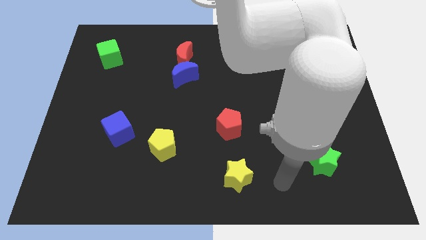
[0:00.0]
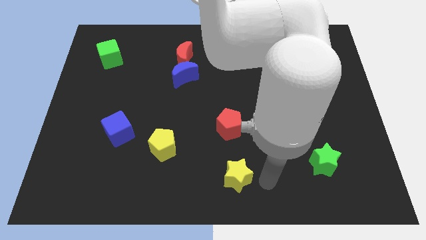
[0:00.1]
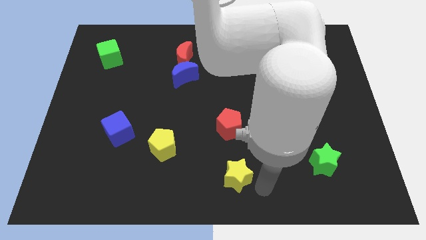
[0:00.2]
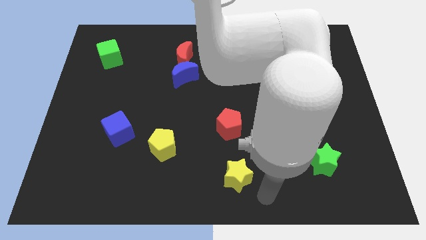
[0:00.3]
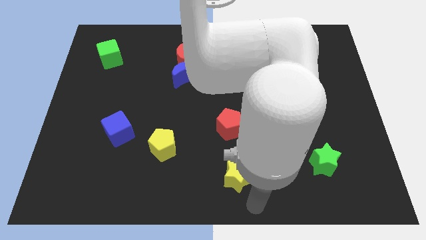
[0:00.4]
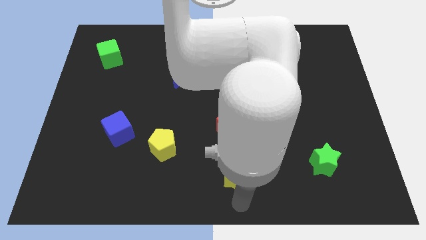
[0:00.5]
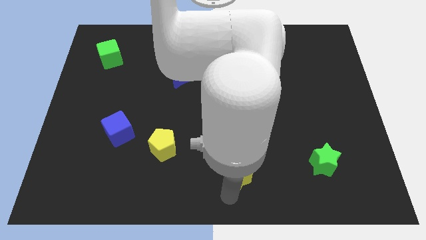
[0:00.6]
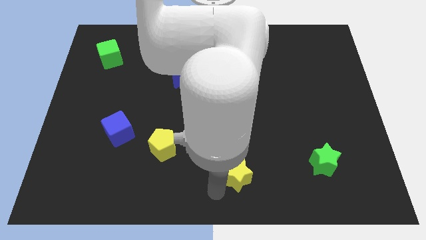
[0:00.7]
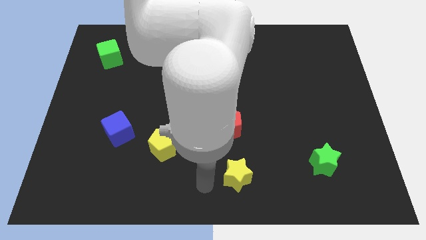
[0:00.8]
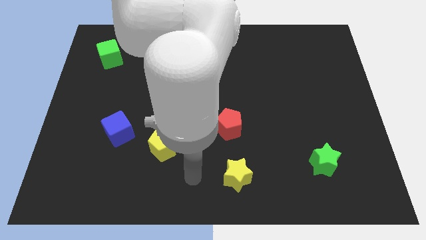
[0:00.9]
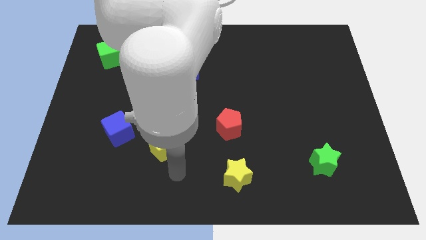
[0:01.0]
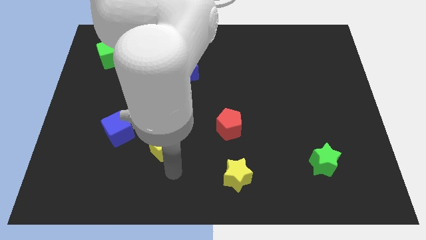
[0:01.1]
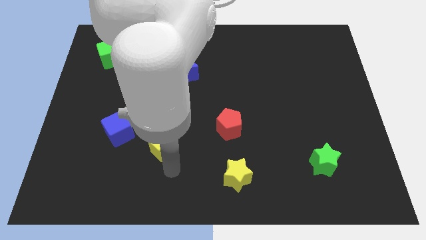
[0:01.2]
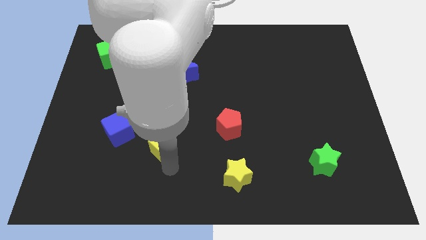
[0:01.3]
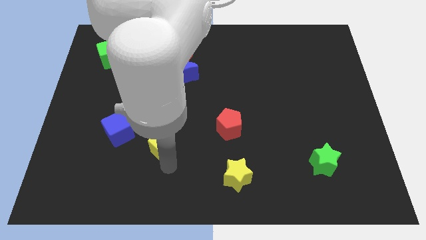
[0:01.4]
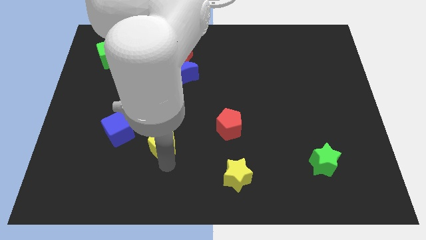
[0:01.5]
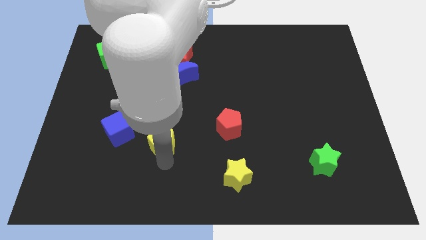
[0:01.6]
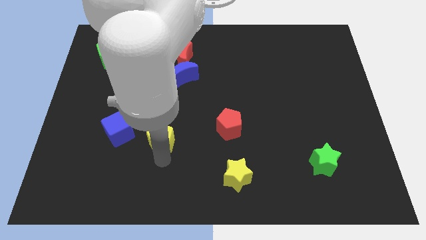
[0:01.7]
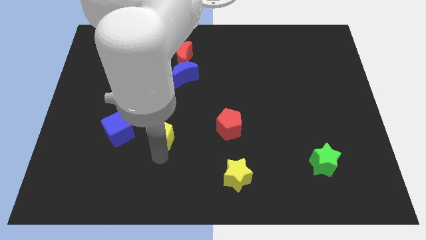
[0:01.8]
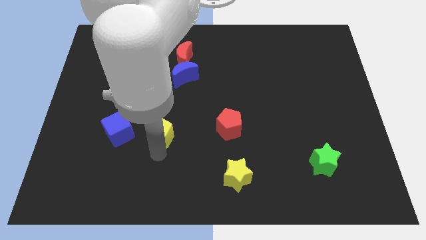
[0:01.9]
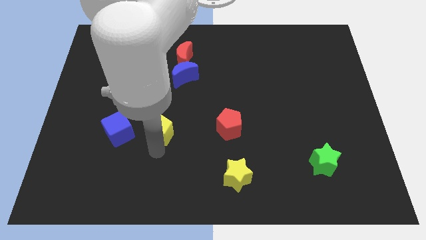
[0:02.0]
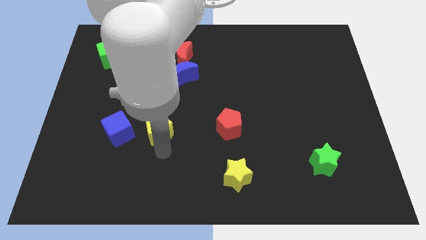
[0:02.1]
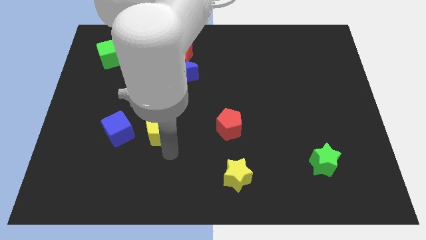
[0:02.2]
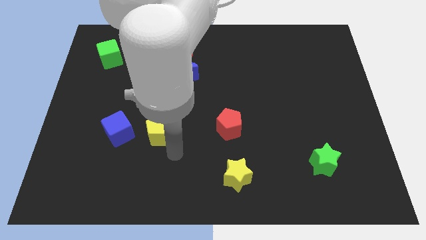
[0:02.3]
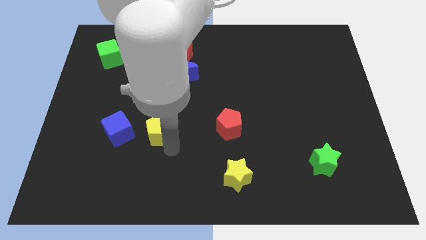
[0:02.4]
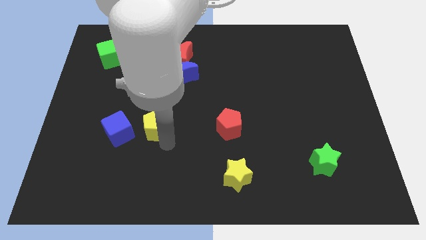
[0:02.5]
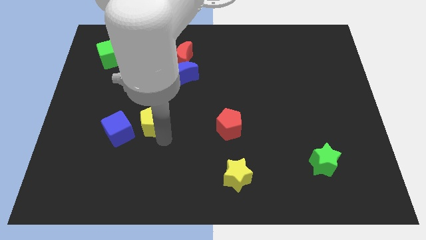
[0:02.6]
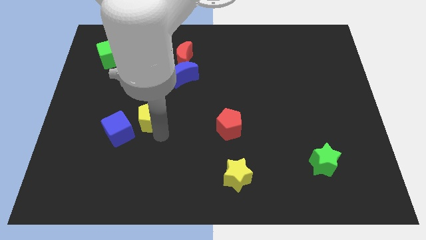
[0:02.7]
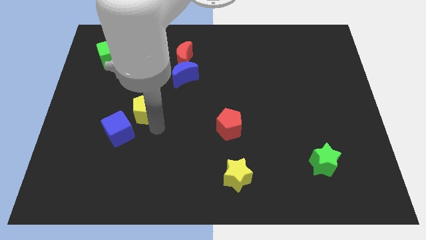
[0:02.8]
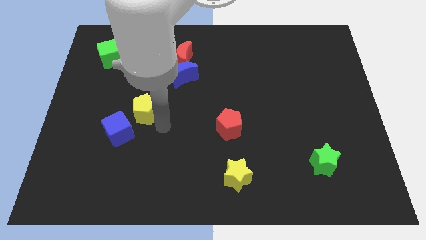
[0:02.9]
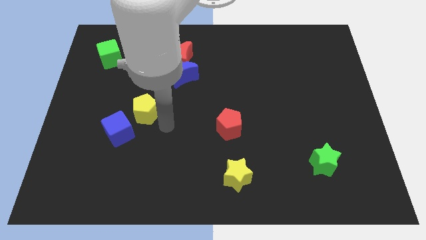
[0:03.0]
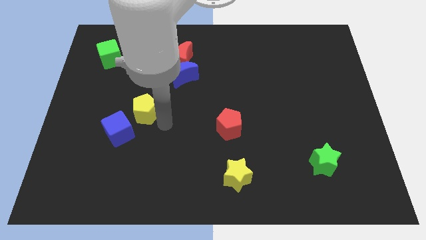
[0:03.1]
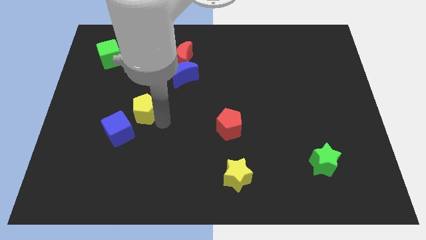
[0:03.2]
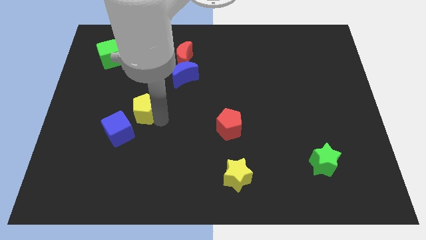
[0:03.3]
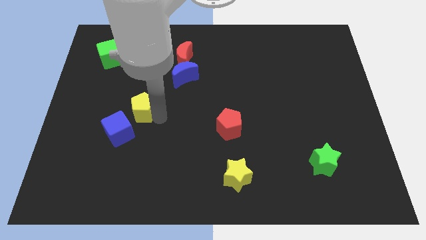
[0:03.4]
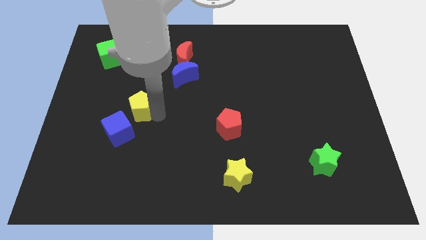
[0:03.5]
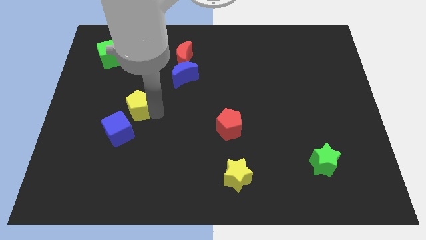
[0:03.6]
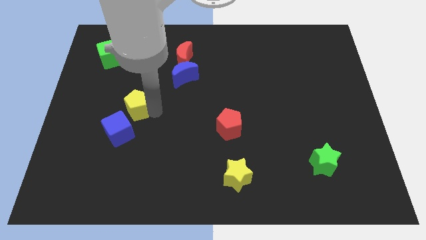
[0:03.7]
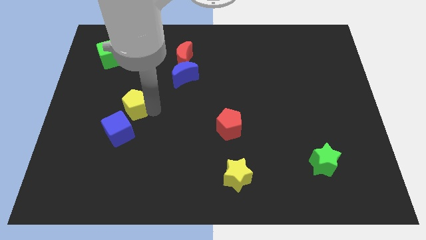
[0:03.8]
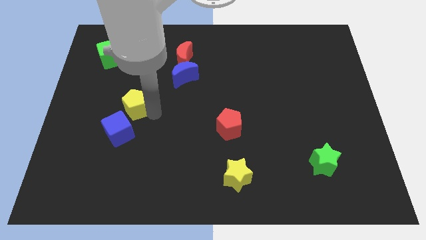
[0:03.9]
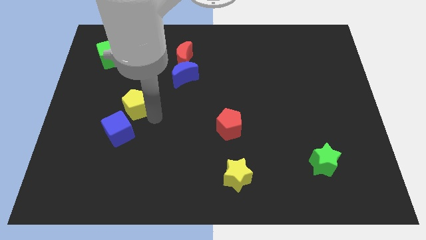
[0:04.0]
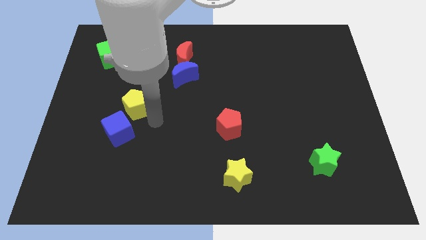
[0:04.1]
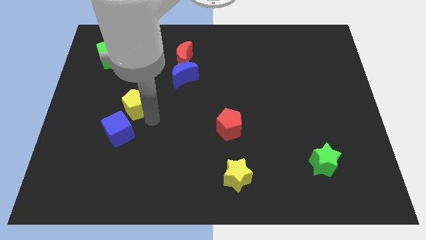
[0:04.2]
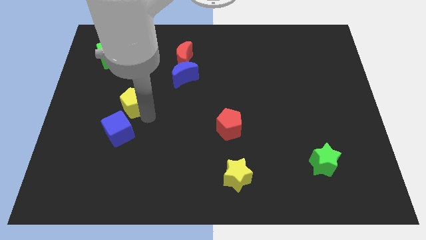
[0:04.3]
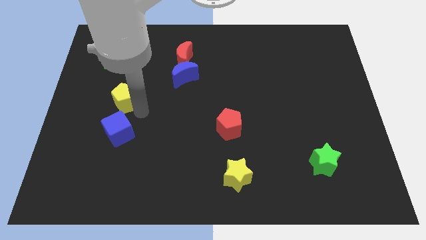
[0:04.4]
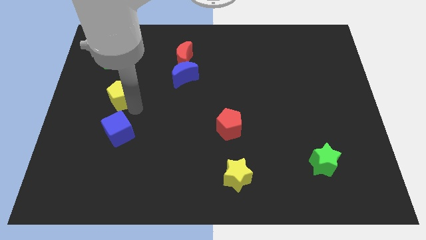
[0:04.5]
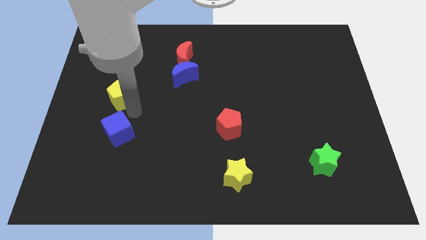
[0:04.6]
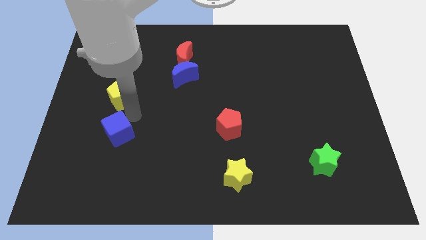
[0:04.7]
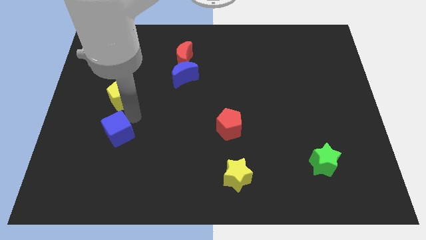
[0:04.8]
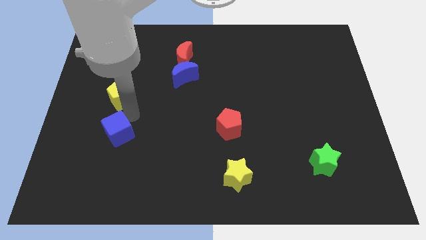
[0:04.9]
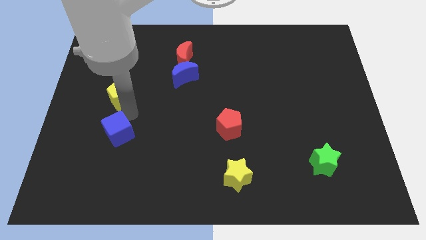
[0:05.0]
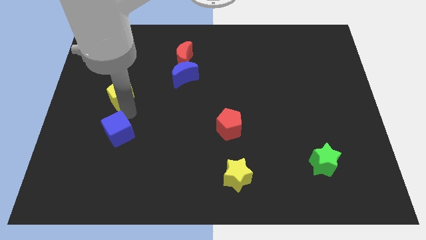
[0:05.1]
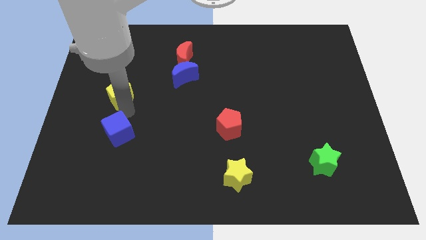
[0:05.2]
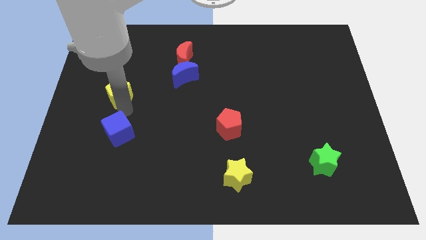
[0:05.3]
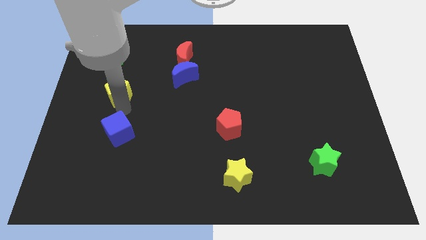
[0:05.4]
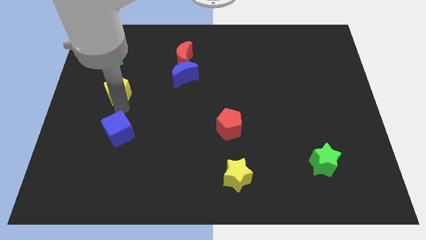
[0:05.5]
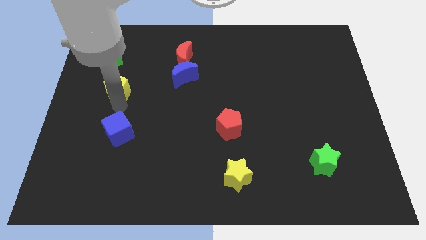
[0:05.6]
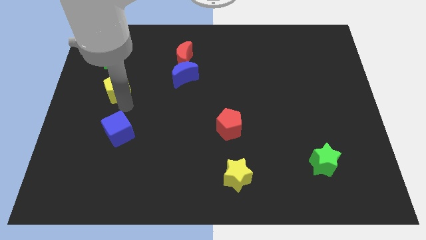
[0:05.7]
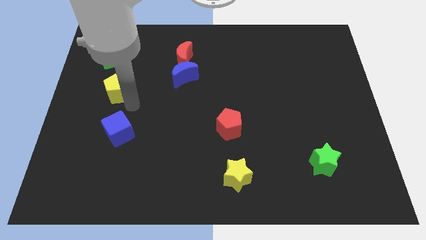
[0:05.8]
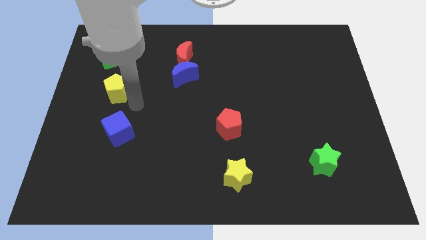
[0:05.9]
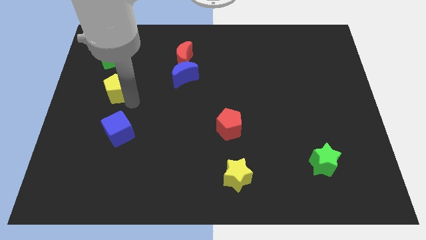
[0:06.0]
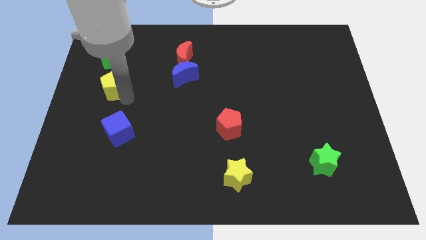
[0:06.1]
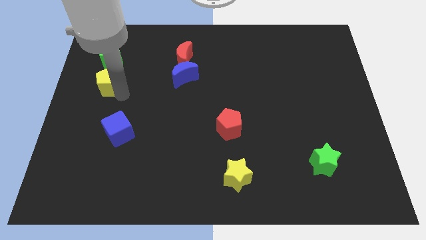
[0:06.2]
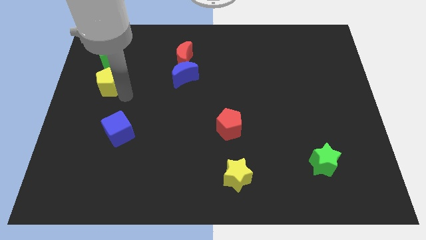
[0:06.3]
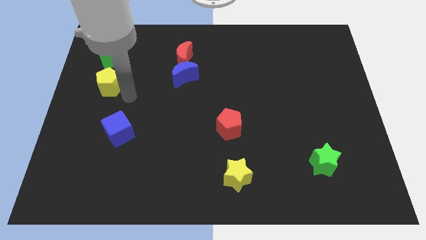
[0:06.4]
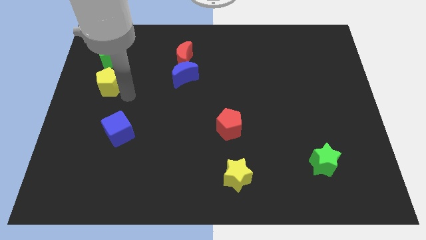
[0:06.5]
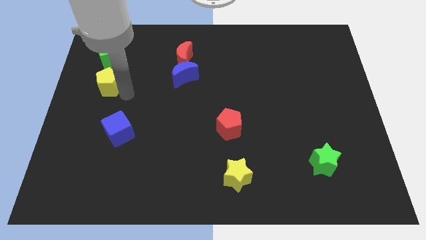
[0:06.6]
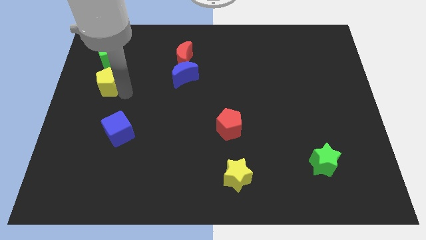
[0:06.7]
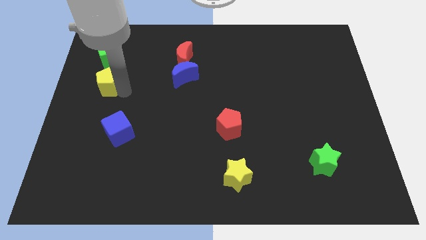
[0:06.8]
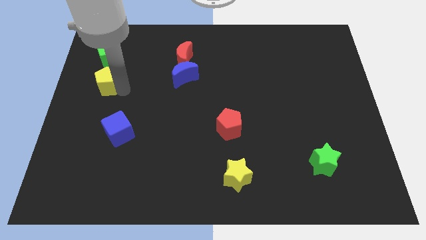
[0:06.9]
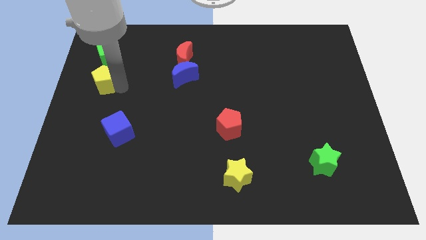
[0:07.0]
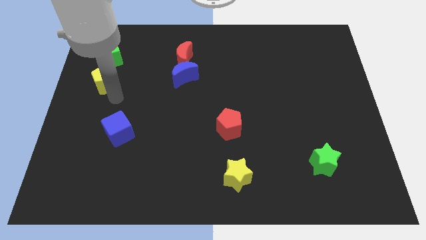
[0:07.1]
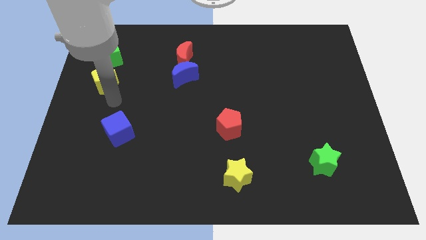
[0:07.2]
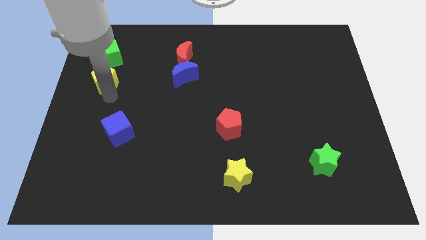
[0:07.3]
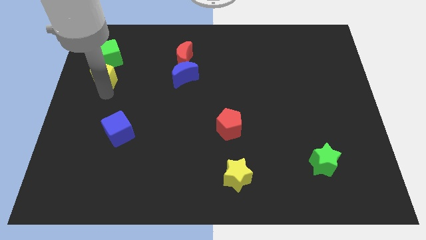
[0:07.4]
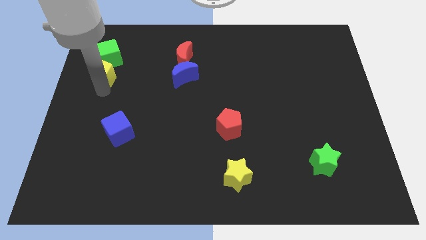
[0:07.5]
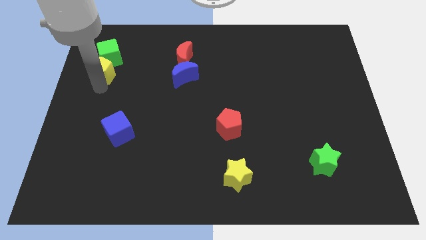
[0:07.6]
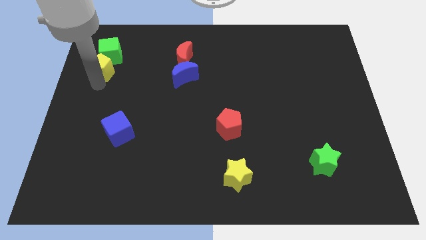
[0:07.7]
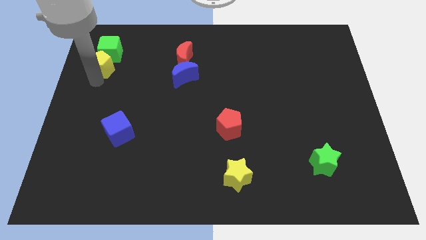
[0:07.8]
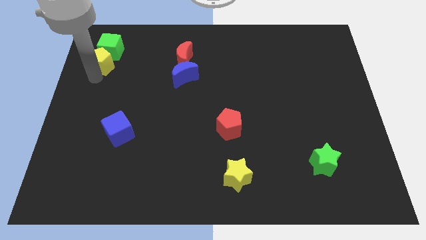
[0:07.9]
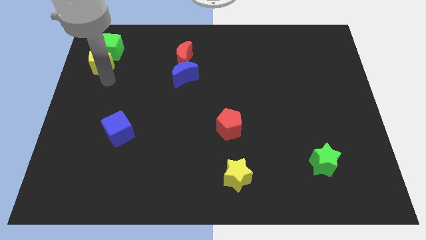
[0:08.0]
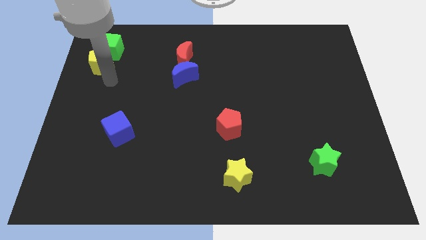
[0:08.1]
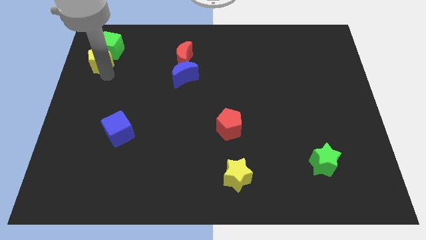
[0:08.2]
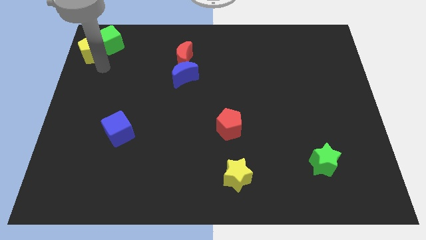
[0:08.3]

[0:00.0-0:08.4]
push the yellow pentagon to the top left corner
